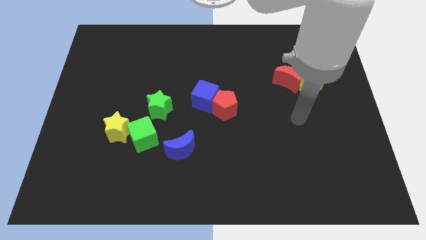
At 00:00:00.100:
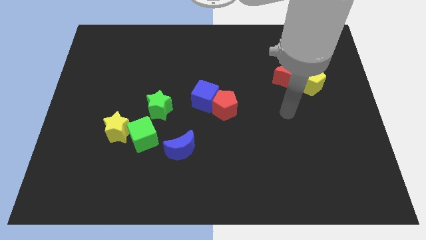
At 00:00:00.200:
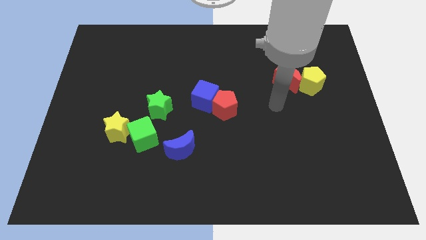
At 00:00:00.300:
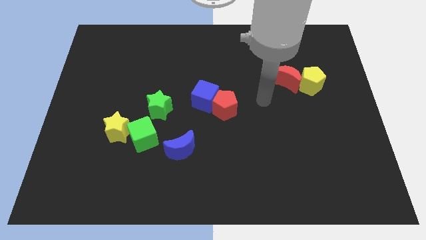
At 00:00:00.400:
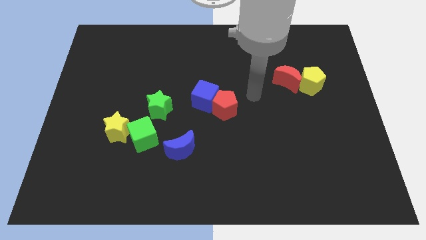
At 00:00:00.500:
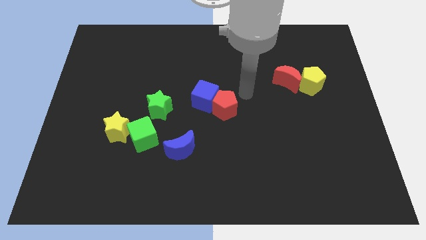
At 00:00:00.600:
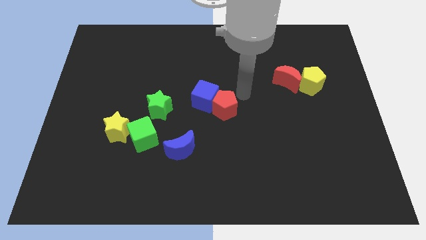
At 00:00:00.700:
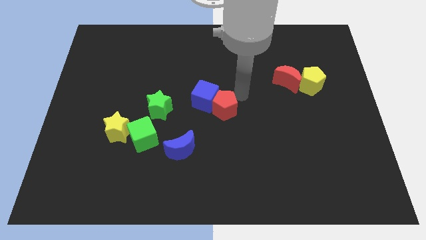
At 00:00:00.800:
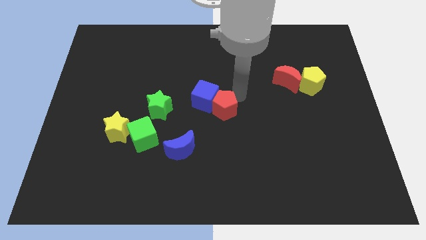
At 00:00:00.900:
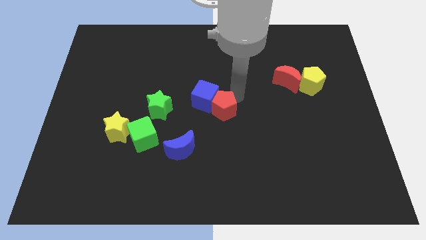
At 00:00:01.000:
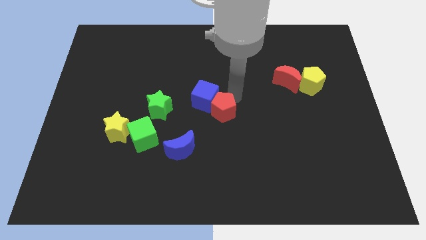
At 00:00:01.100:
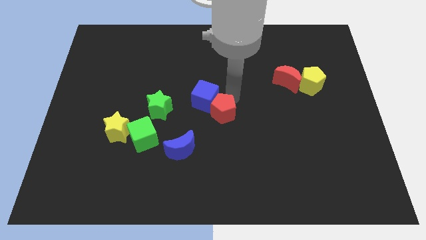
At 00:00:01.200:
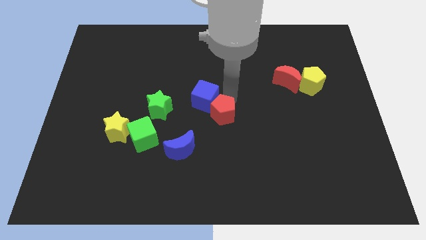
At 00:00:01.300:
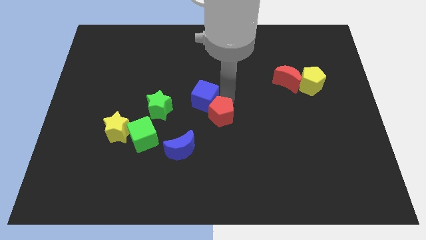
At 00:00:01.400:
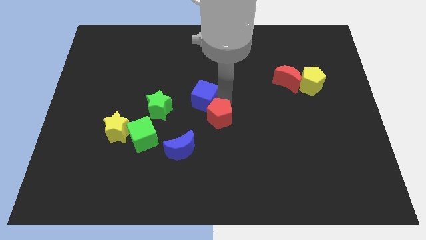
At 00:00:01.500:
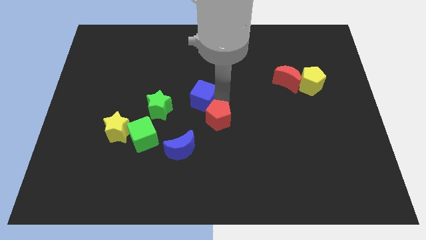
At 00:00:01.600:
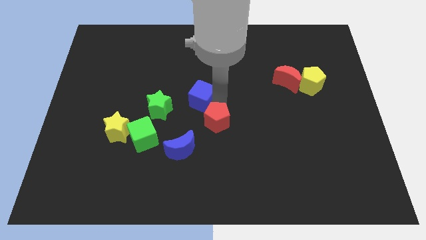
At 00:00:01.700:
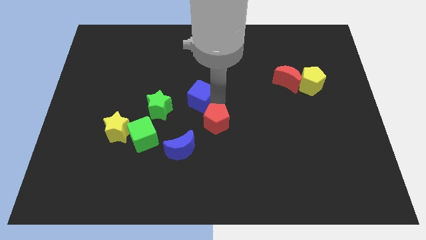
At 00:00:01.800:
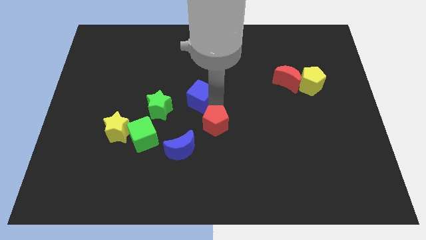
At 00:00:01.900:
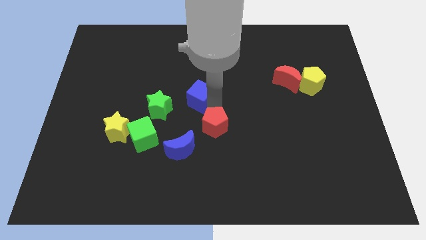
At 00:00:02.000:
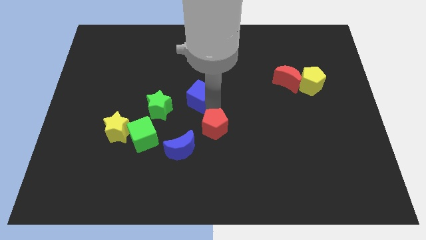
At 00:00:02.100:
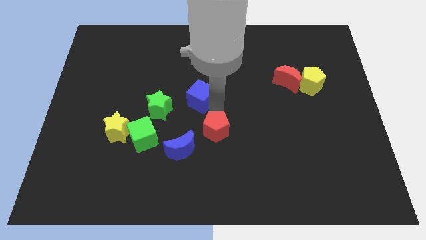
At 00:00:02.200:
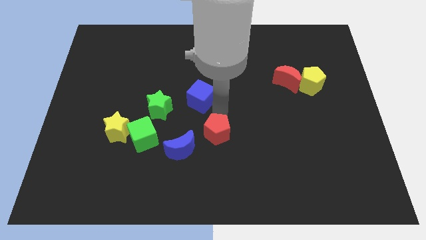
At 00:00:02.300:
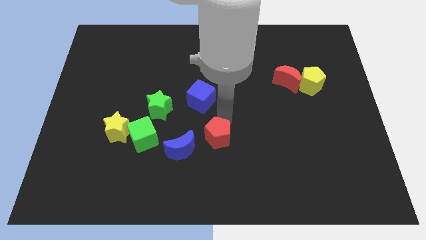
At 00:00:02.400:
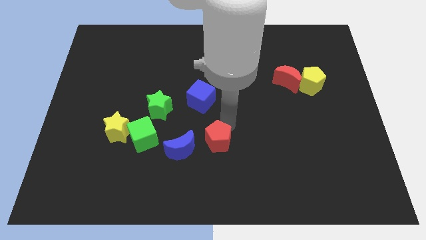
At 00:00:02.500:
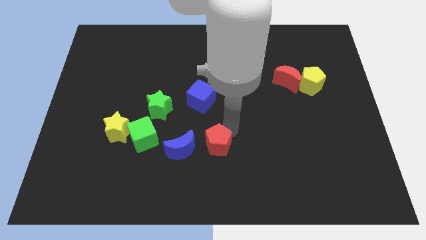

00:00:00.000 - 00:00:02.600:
slightly move the red pentagon downwards and then to the left

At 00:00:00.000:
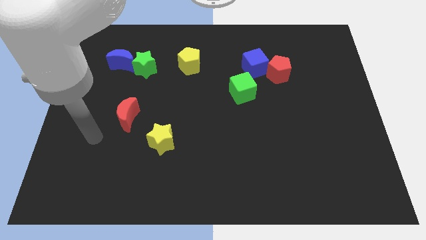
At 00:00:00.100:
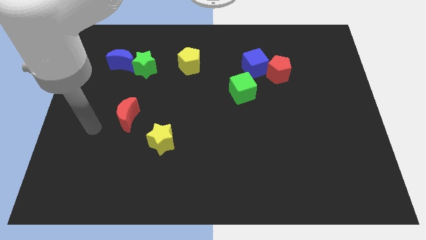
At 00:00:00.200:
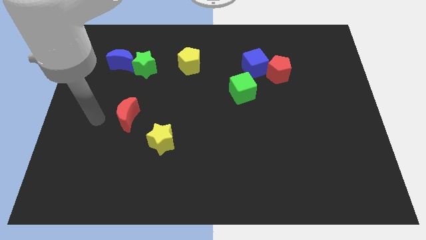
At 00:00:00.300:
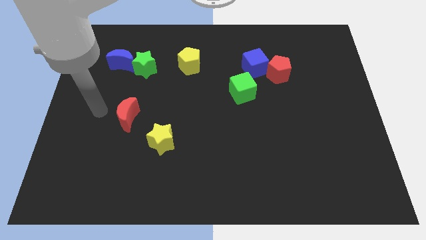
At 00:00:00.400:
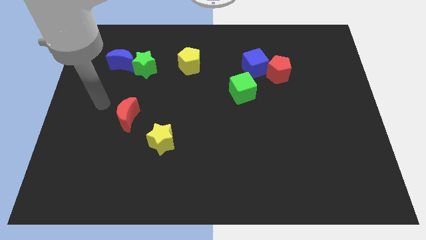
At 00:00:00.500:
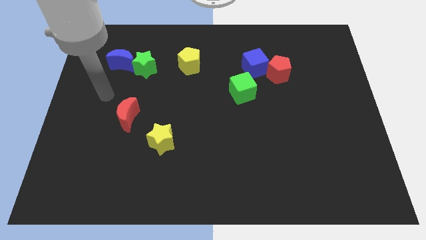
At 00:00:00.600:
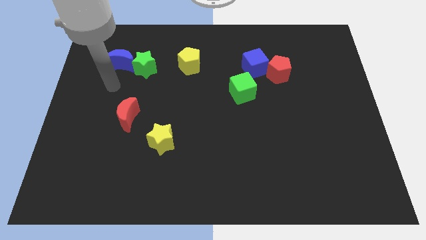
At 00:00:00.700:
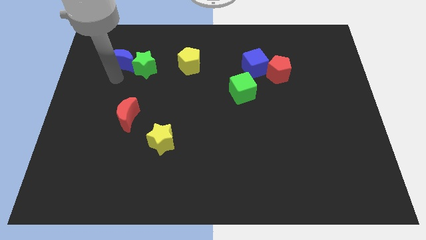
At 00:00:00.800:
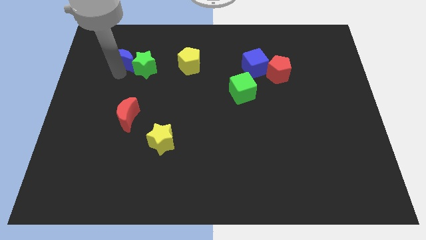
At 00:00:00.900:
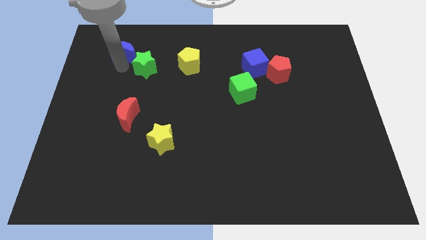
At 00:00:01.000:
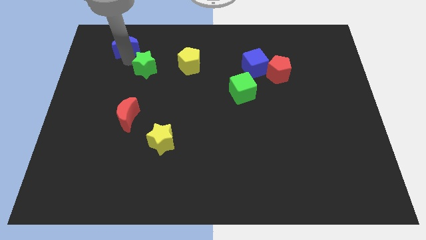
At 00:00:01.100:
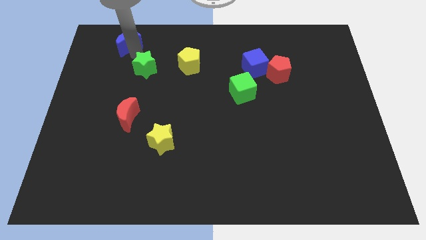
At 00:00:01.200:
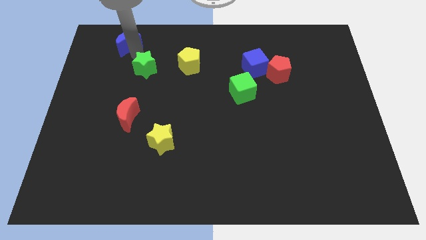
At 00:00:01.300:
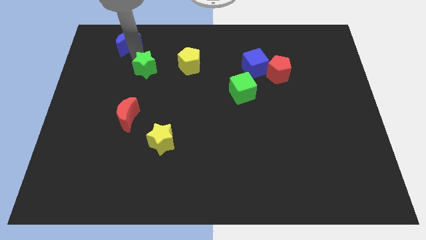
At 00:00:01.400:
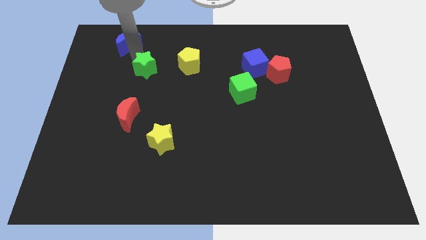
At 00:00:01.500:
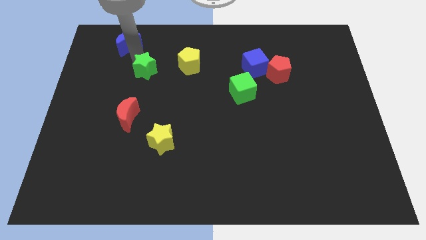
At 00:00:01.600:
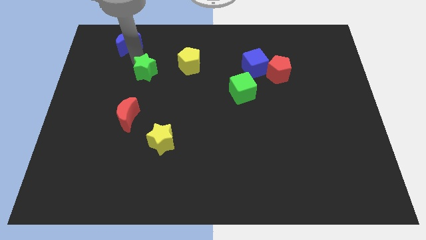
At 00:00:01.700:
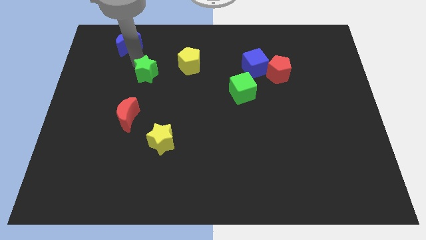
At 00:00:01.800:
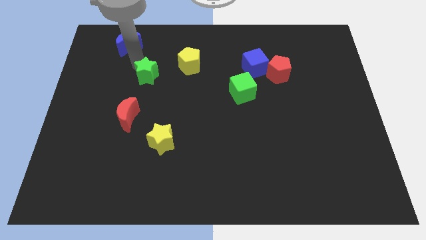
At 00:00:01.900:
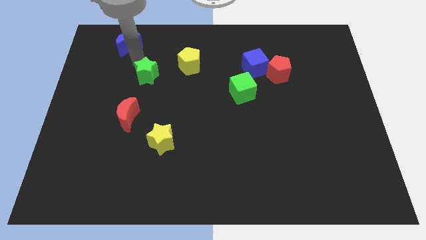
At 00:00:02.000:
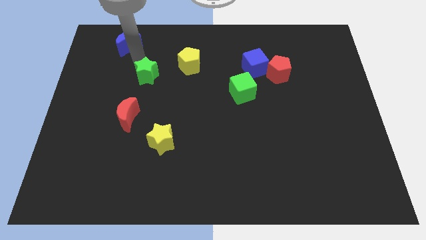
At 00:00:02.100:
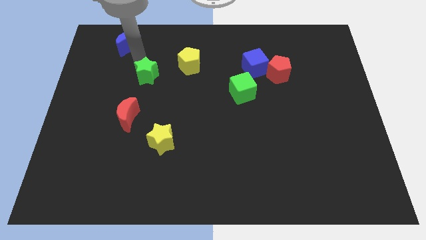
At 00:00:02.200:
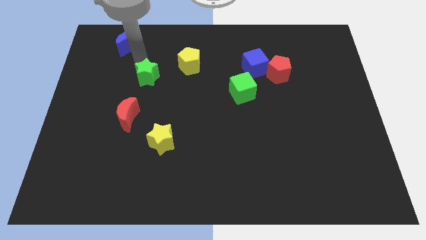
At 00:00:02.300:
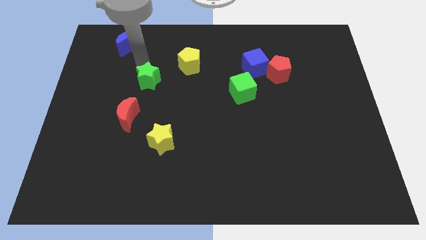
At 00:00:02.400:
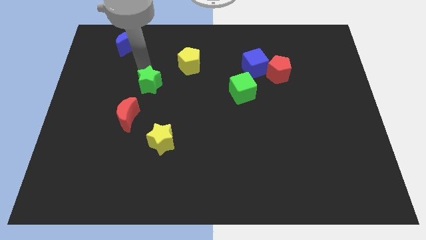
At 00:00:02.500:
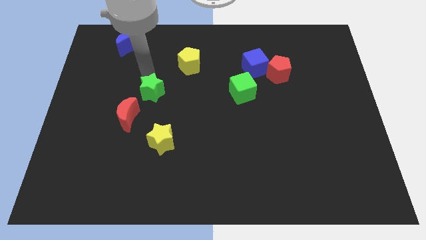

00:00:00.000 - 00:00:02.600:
slide the green star downwards a little

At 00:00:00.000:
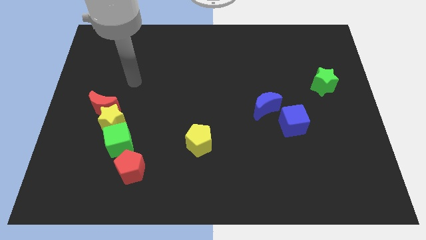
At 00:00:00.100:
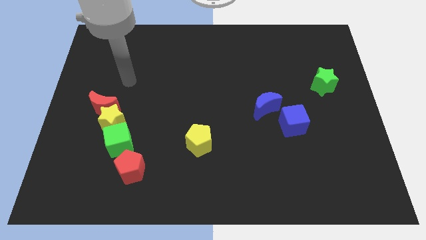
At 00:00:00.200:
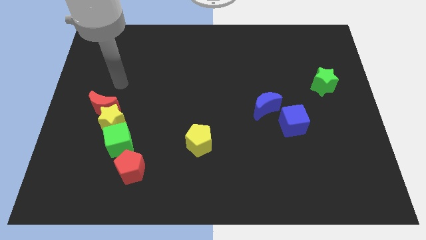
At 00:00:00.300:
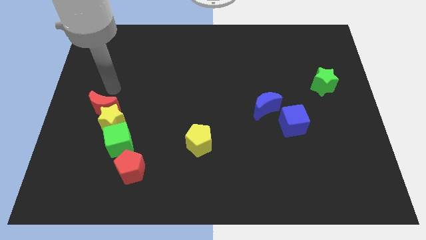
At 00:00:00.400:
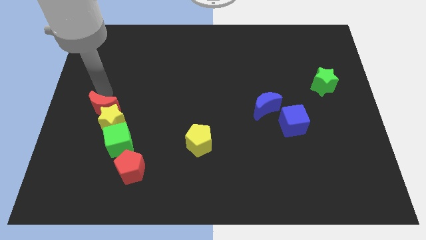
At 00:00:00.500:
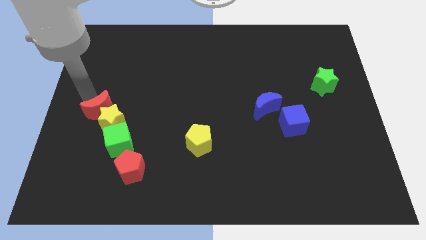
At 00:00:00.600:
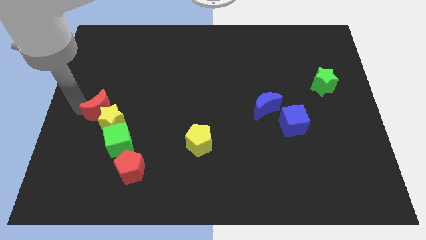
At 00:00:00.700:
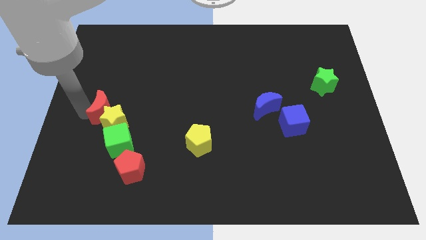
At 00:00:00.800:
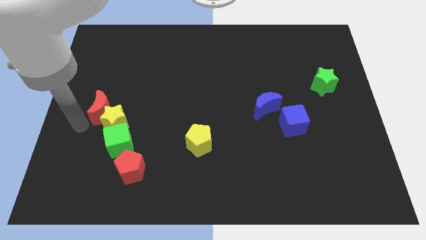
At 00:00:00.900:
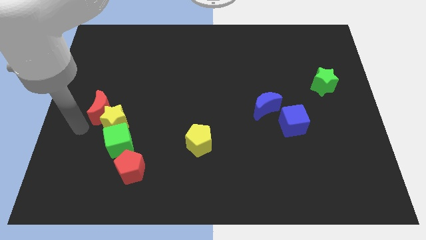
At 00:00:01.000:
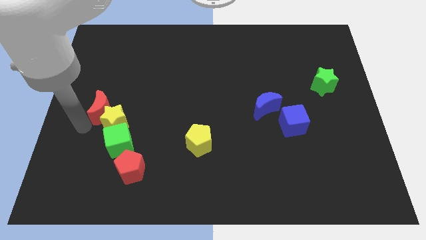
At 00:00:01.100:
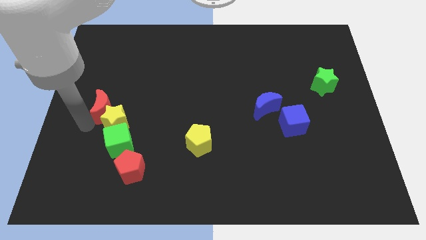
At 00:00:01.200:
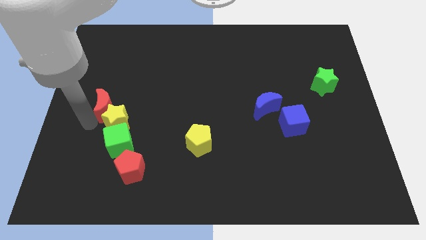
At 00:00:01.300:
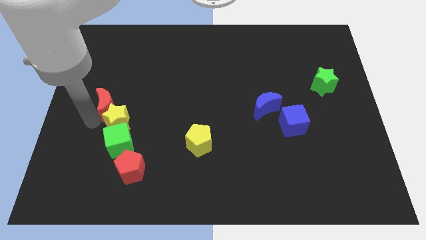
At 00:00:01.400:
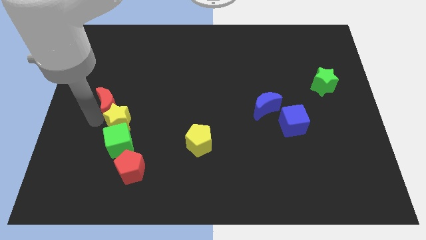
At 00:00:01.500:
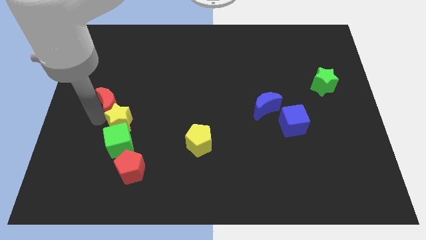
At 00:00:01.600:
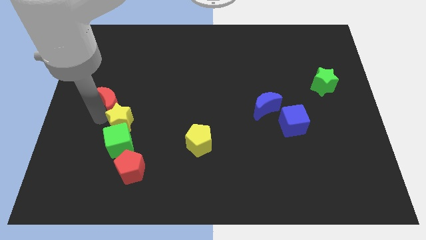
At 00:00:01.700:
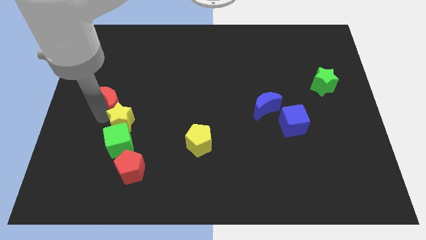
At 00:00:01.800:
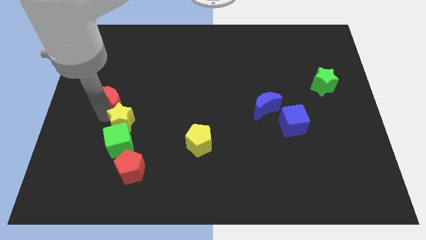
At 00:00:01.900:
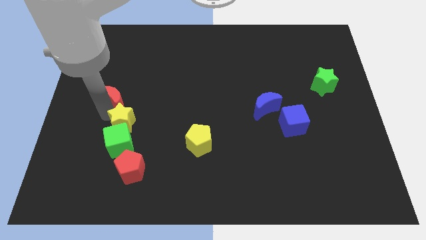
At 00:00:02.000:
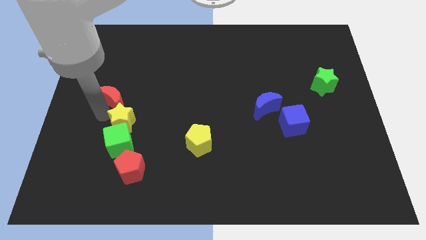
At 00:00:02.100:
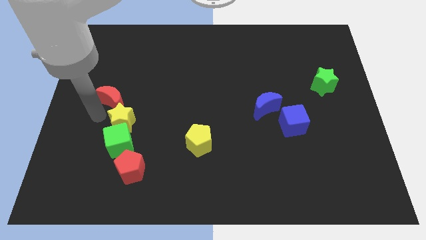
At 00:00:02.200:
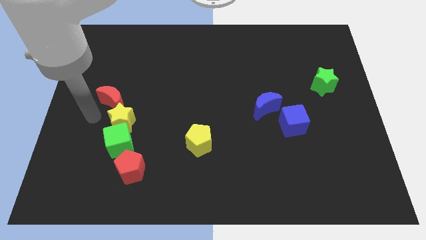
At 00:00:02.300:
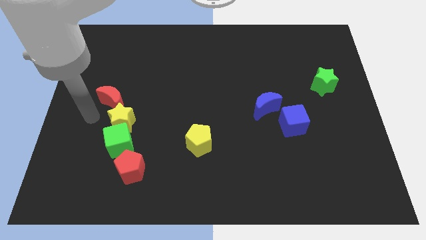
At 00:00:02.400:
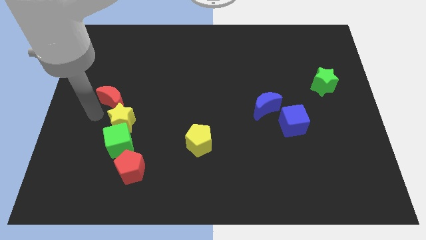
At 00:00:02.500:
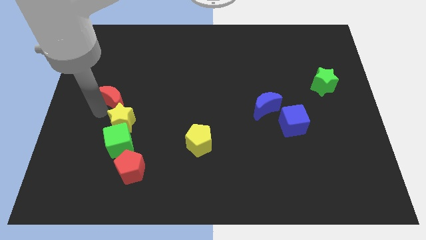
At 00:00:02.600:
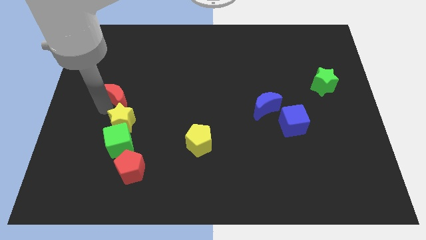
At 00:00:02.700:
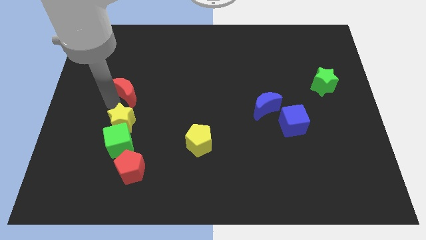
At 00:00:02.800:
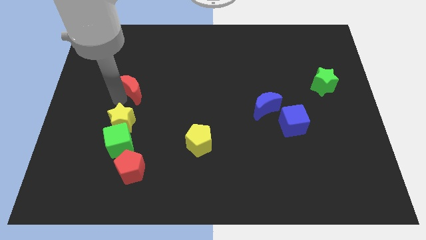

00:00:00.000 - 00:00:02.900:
push the red moon diagonally upwards and to the right a little bit
